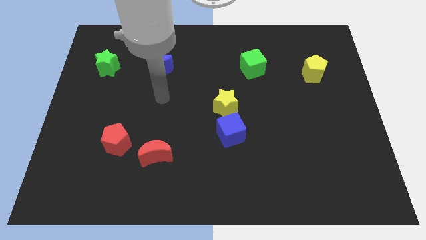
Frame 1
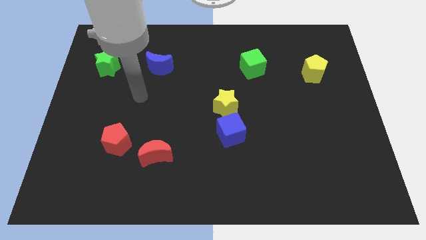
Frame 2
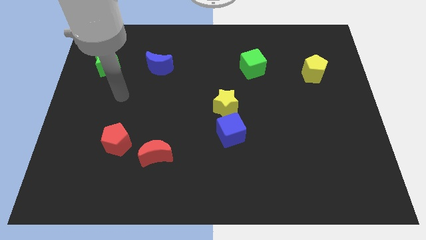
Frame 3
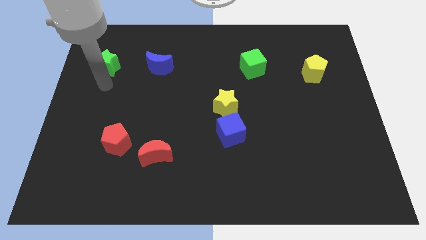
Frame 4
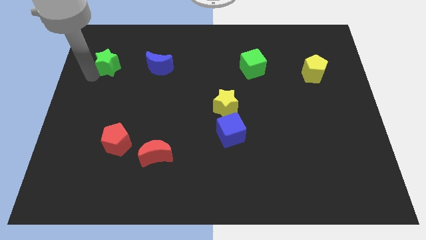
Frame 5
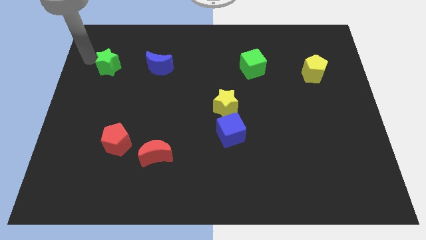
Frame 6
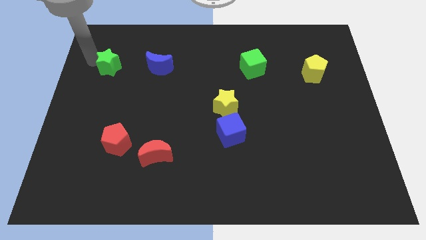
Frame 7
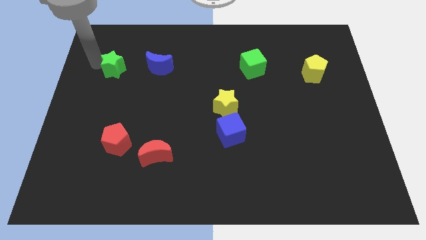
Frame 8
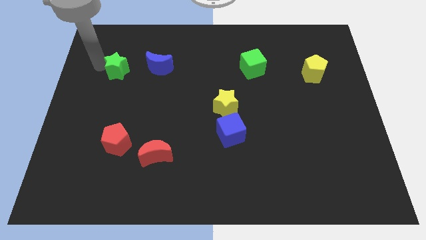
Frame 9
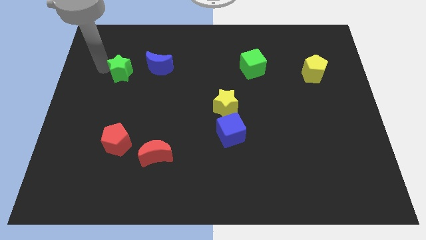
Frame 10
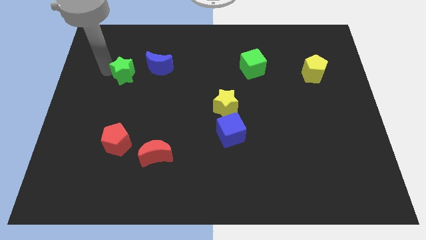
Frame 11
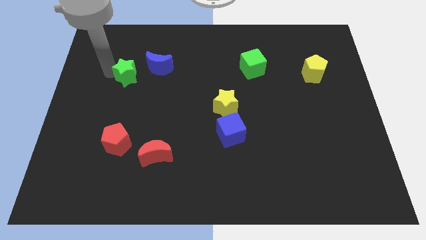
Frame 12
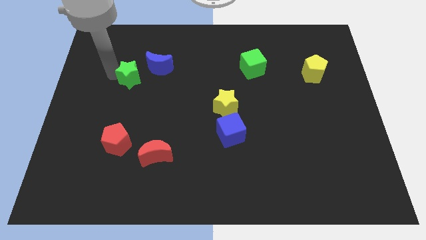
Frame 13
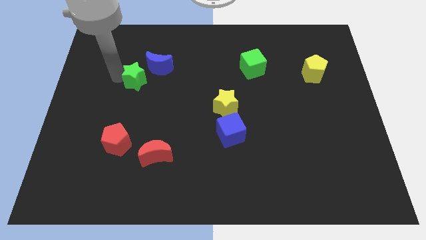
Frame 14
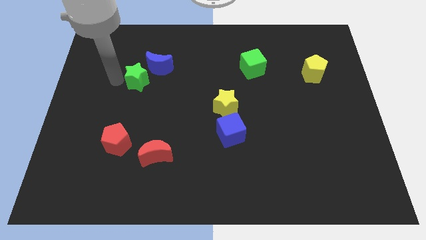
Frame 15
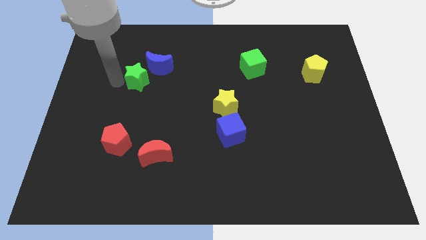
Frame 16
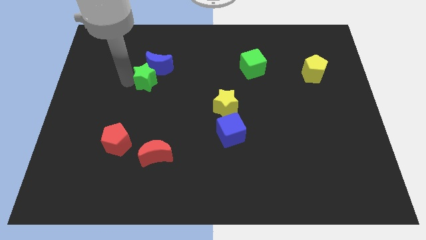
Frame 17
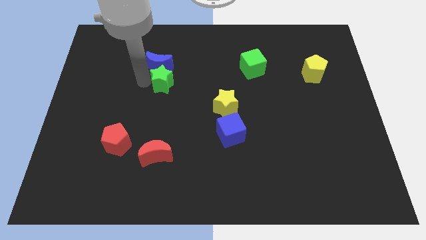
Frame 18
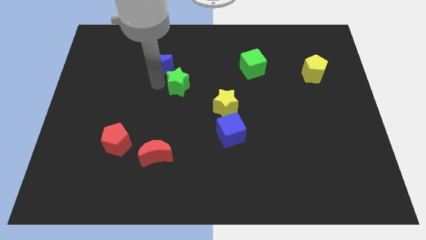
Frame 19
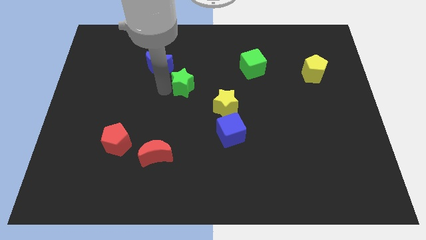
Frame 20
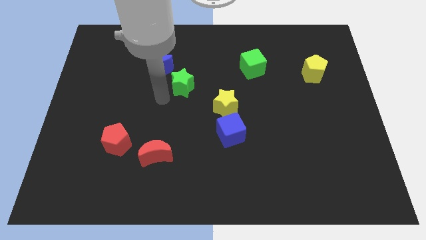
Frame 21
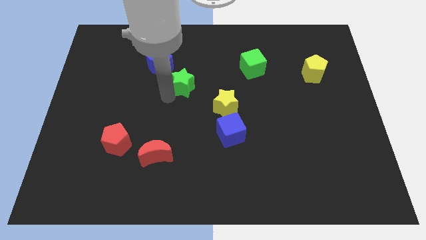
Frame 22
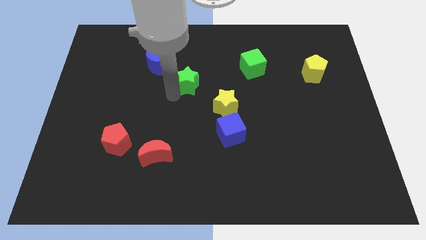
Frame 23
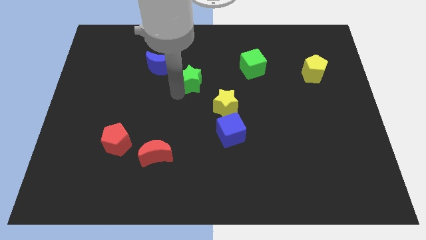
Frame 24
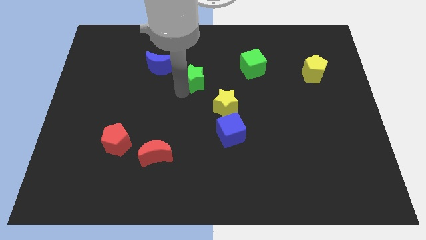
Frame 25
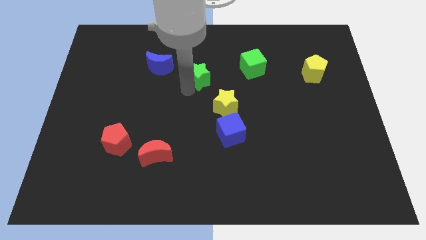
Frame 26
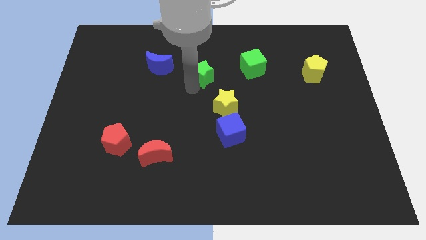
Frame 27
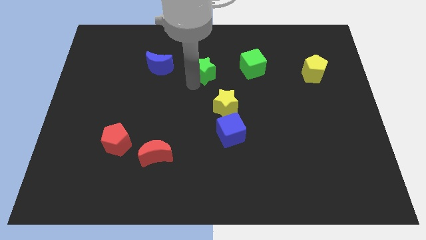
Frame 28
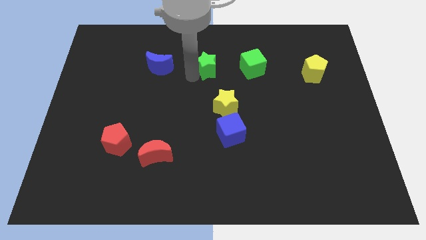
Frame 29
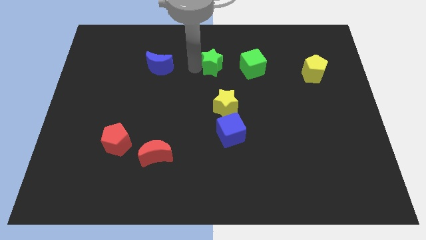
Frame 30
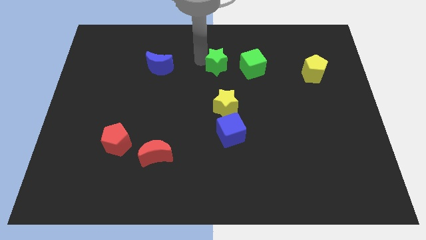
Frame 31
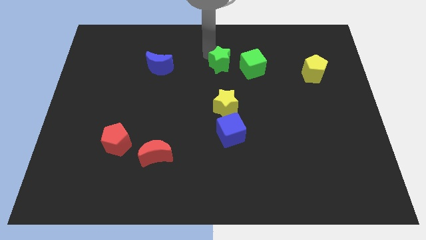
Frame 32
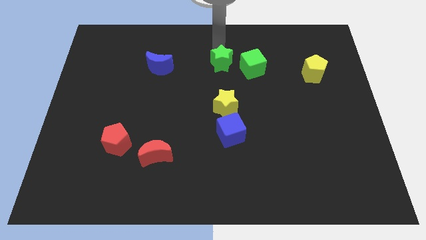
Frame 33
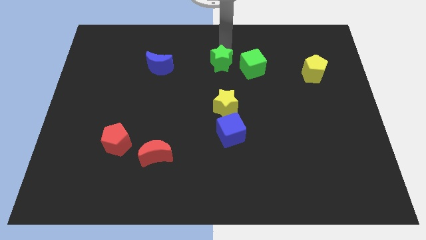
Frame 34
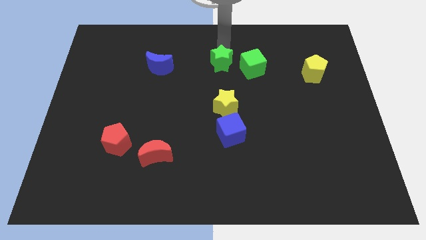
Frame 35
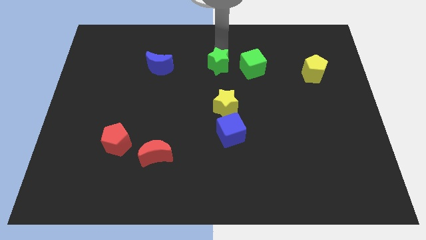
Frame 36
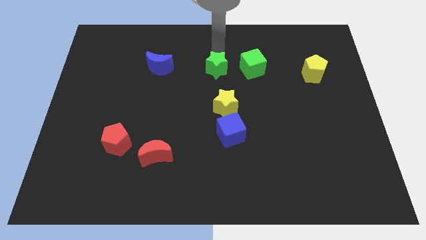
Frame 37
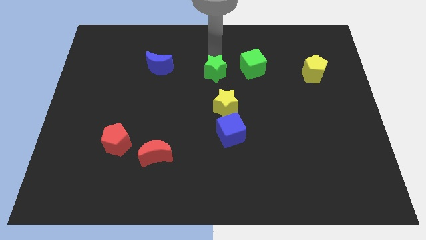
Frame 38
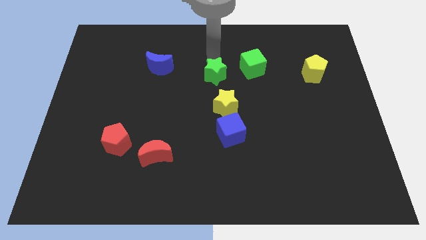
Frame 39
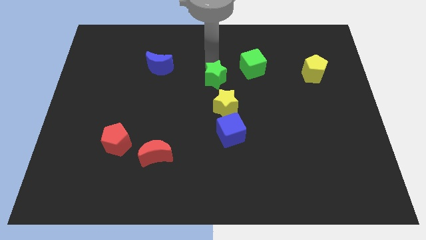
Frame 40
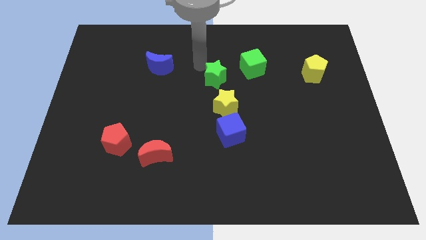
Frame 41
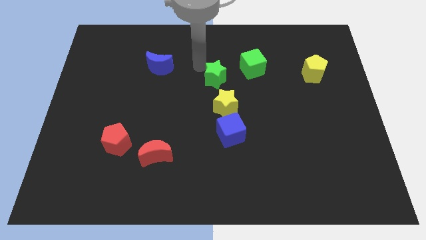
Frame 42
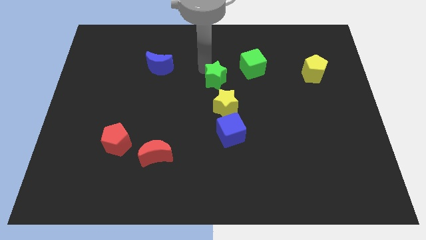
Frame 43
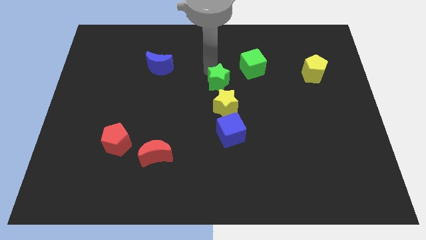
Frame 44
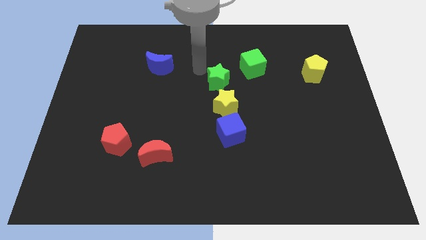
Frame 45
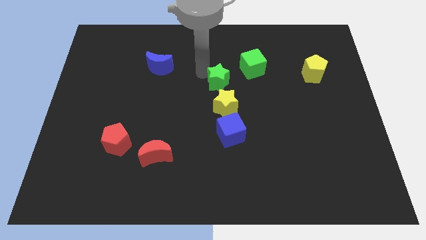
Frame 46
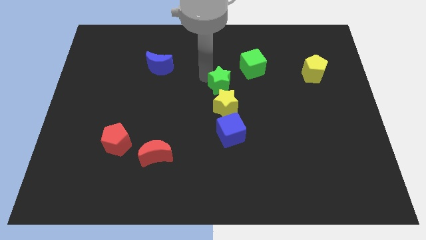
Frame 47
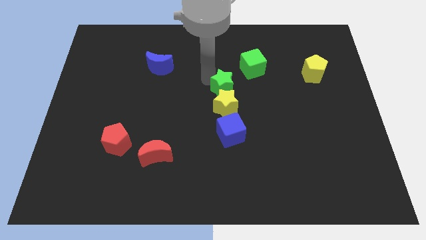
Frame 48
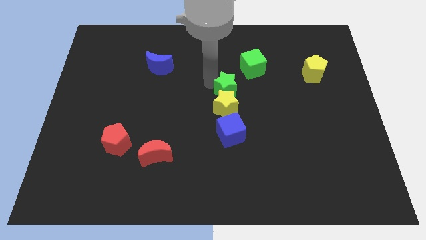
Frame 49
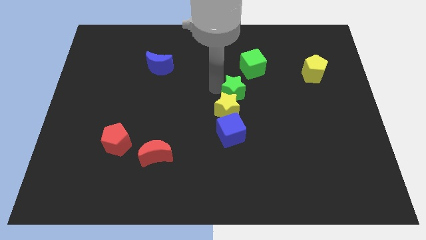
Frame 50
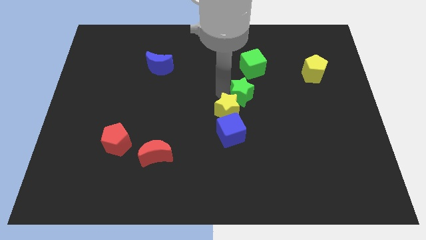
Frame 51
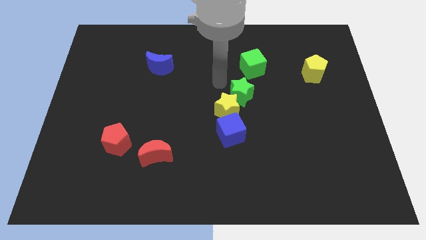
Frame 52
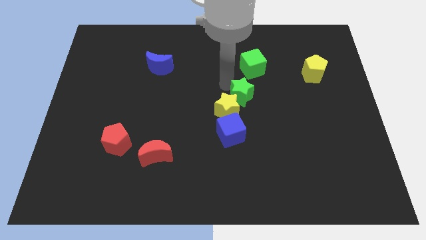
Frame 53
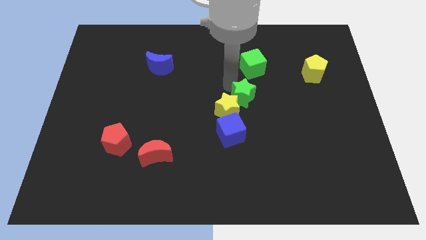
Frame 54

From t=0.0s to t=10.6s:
move the green star to the right side of the yellow star

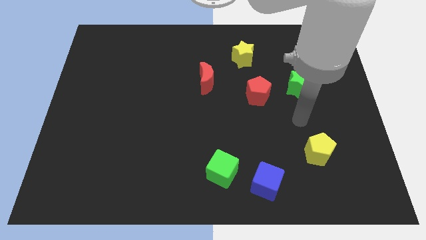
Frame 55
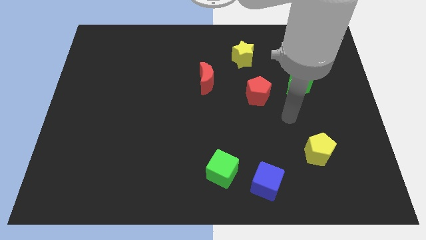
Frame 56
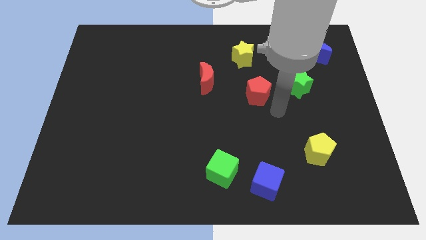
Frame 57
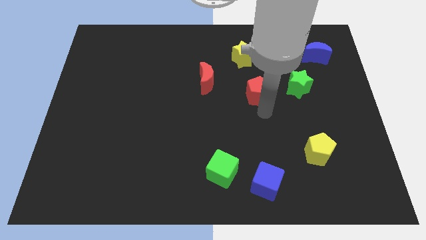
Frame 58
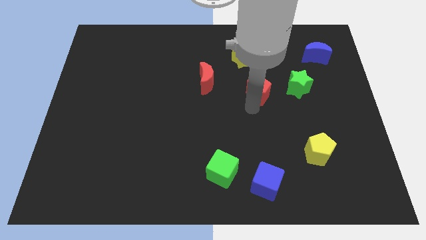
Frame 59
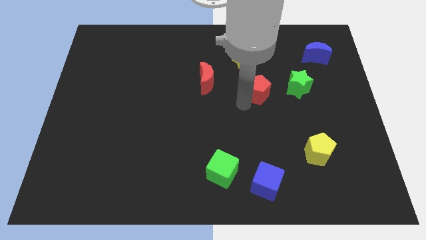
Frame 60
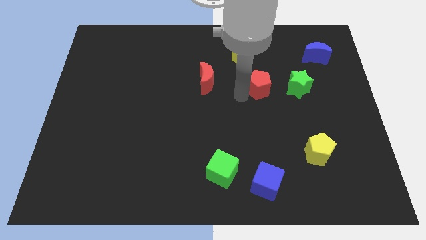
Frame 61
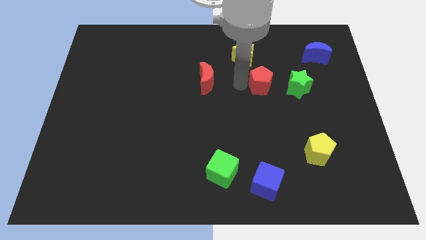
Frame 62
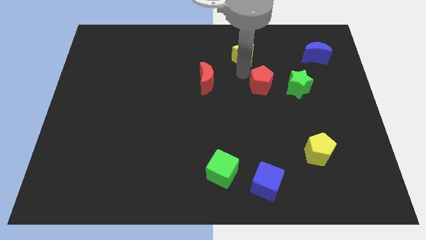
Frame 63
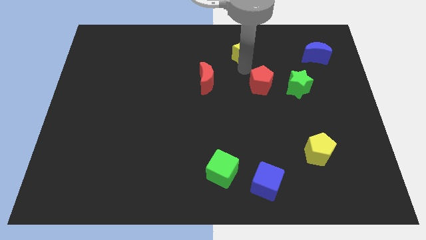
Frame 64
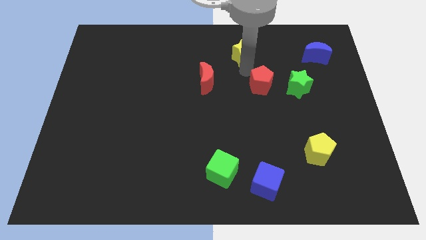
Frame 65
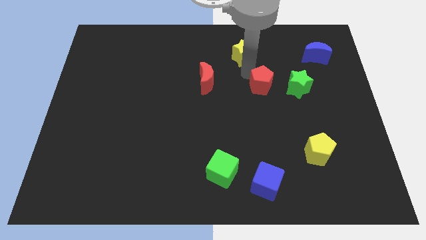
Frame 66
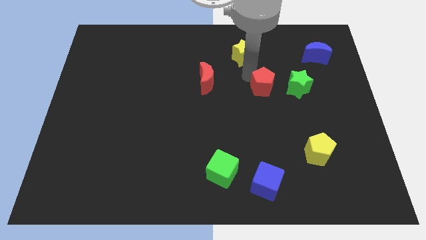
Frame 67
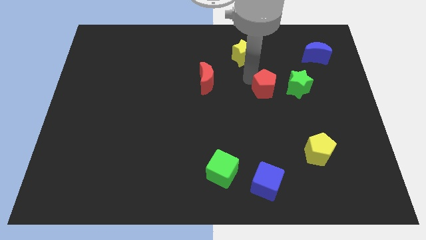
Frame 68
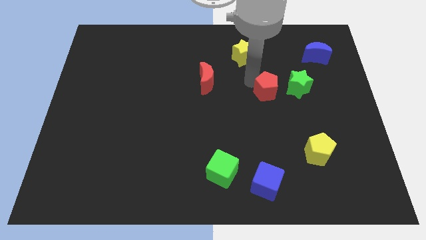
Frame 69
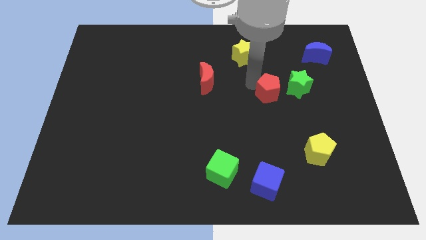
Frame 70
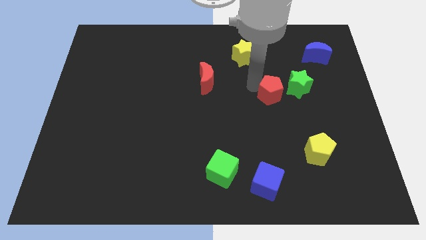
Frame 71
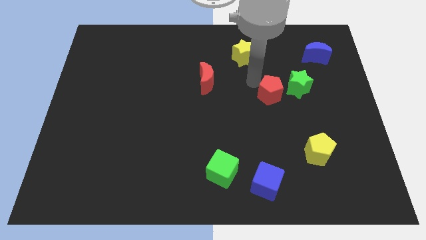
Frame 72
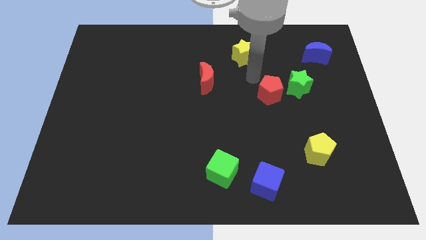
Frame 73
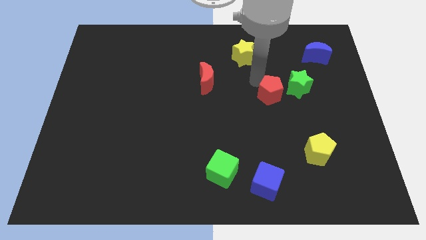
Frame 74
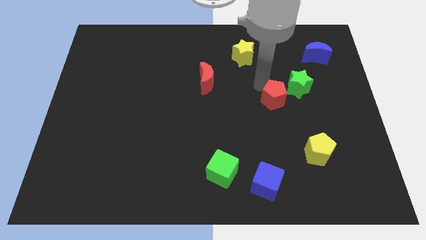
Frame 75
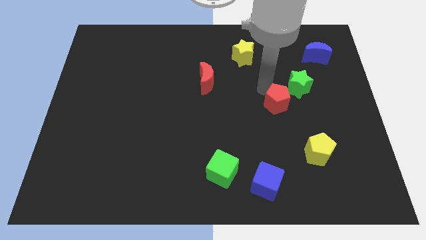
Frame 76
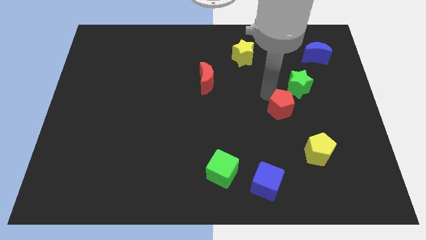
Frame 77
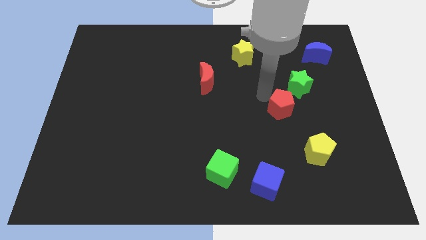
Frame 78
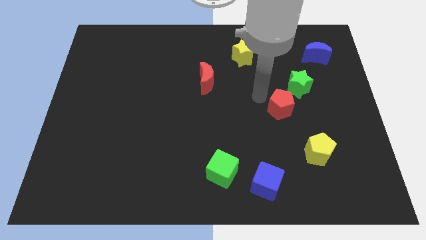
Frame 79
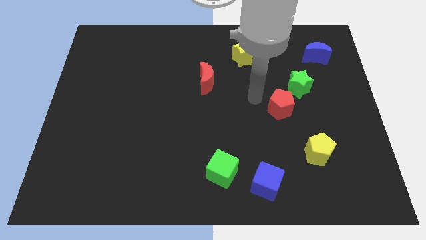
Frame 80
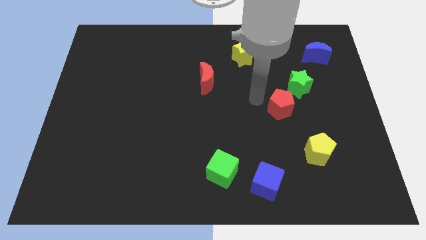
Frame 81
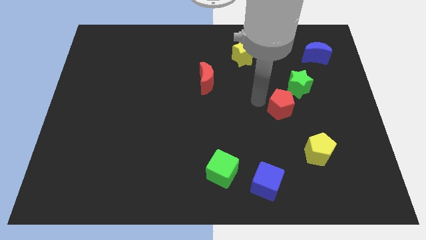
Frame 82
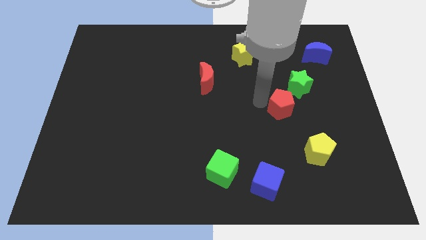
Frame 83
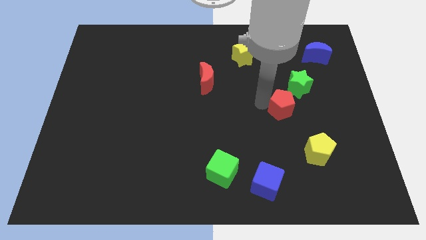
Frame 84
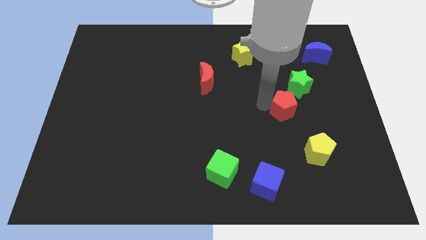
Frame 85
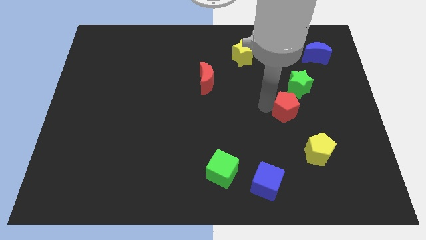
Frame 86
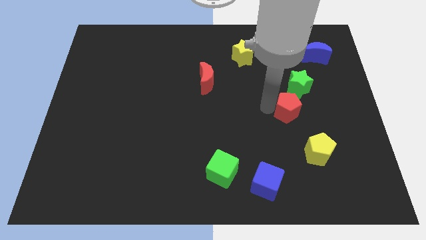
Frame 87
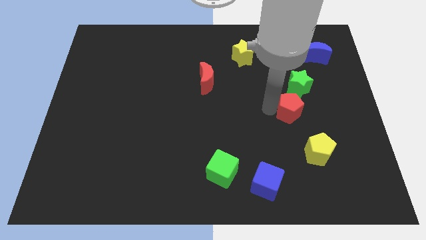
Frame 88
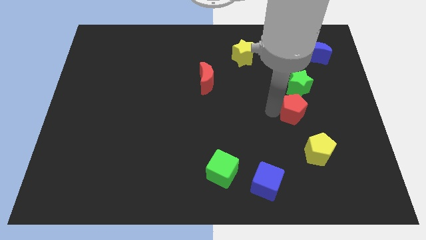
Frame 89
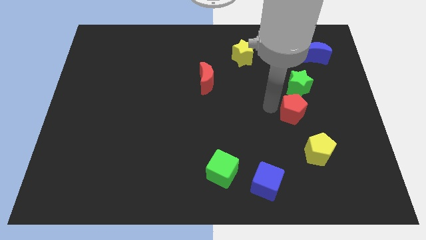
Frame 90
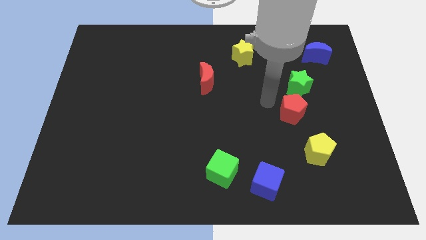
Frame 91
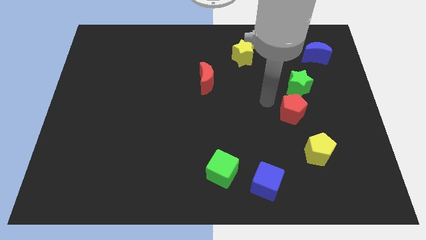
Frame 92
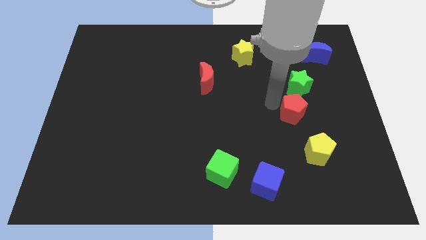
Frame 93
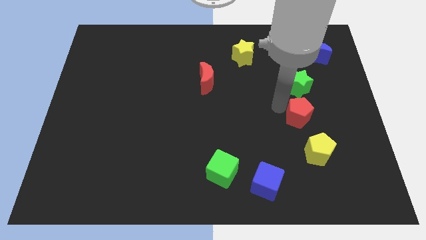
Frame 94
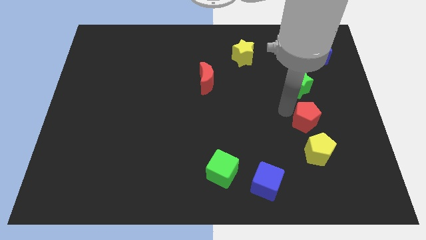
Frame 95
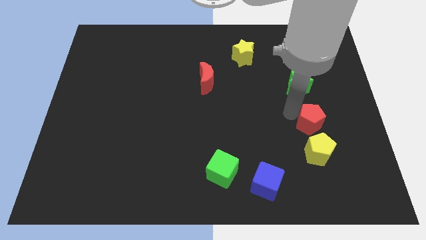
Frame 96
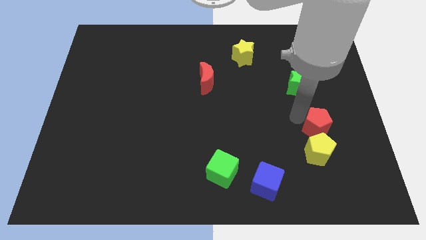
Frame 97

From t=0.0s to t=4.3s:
slide the red pentagon to the top right of the yellow pentagon
